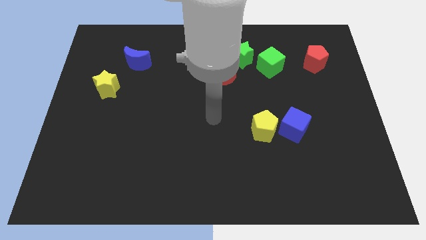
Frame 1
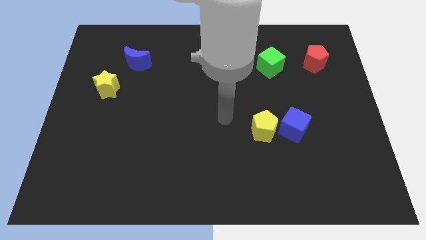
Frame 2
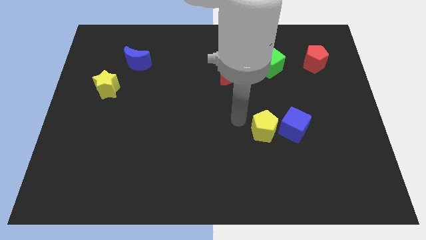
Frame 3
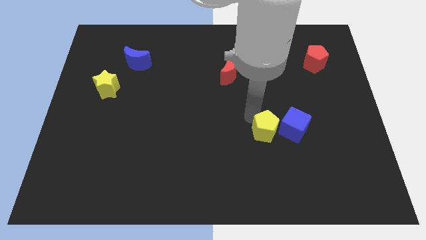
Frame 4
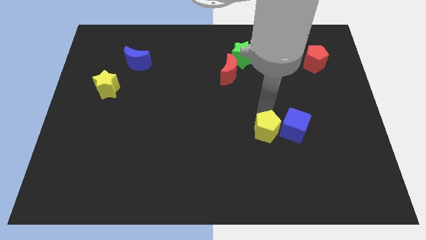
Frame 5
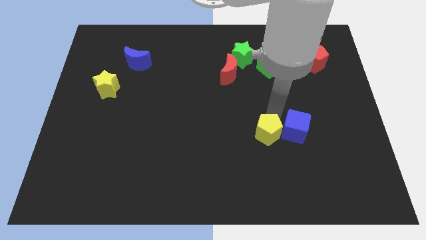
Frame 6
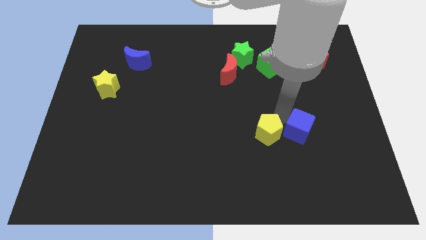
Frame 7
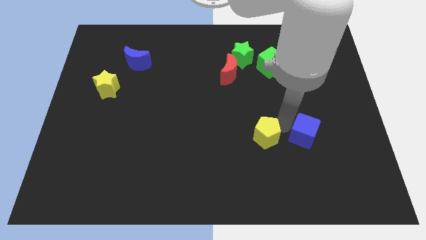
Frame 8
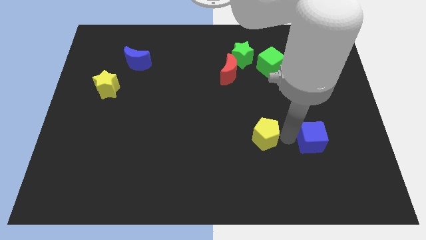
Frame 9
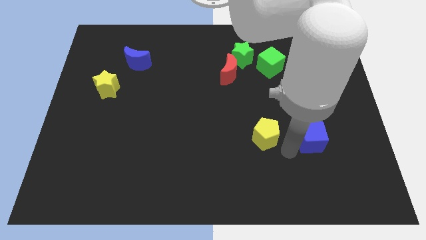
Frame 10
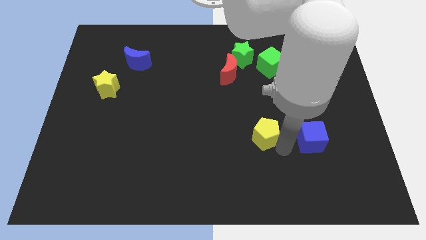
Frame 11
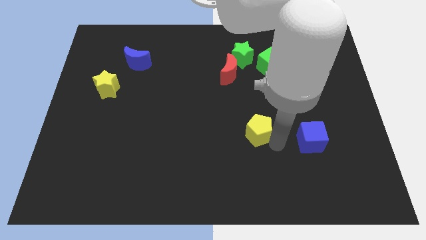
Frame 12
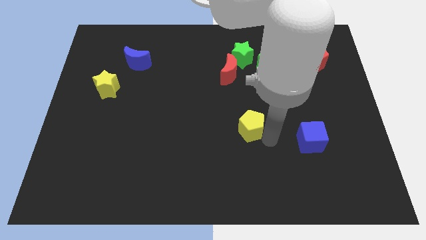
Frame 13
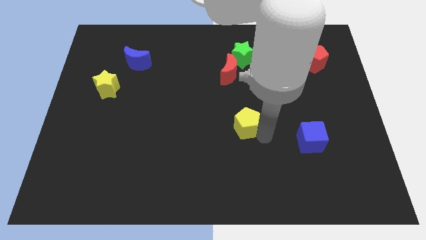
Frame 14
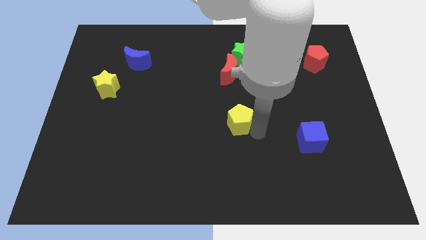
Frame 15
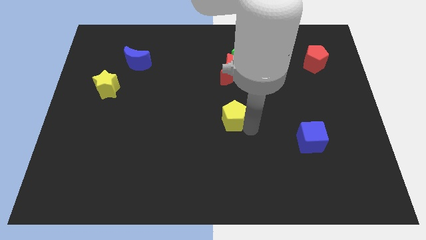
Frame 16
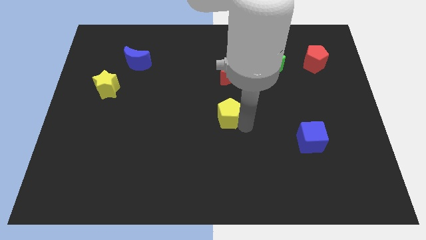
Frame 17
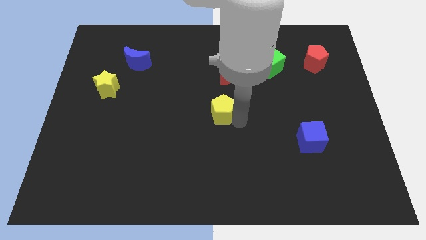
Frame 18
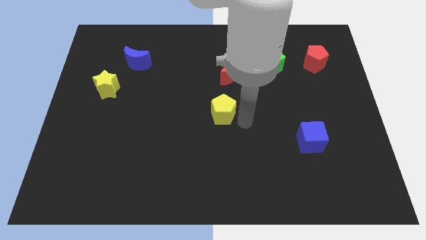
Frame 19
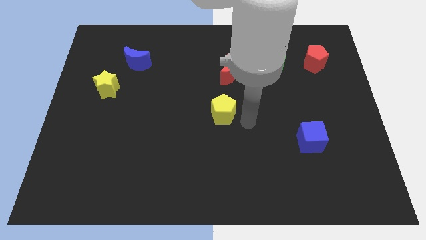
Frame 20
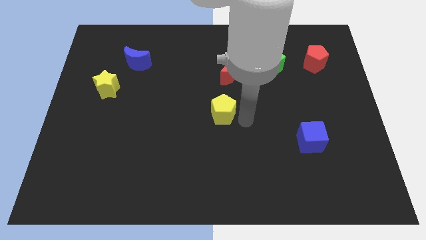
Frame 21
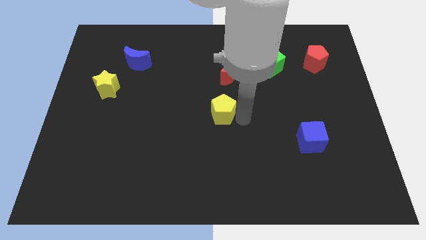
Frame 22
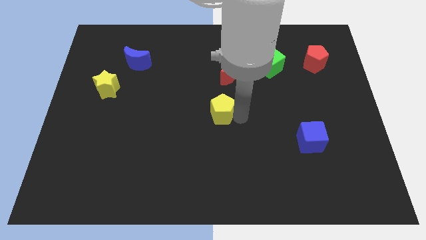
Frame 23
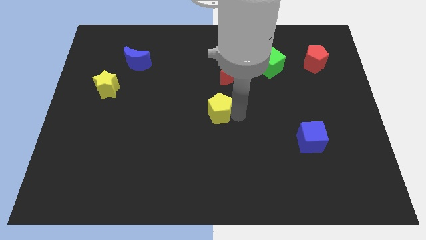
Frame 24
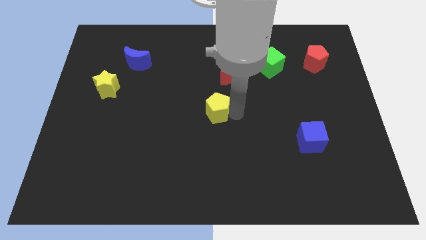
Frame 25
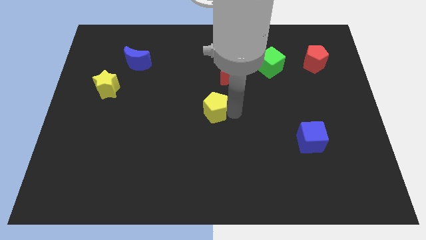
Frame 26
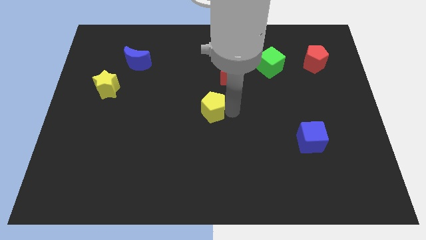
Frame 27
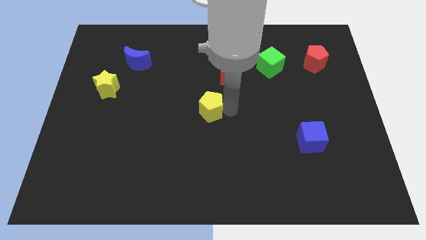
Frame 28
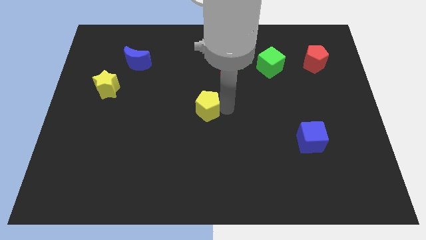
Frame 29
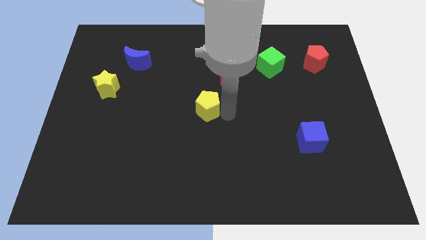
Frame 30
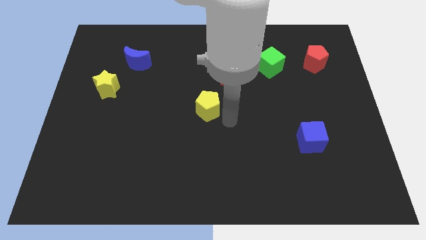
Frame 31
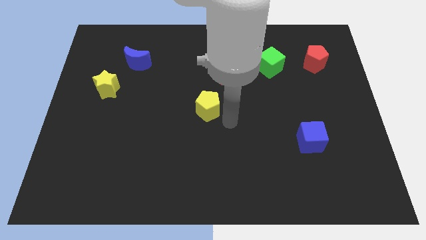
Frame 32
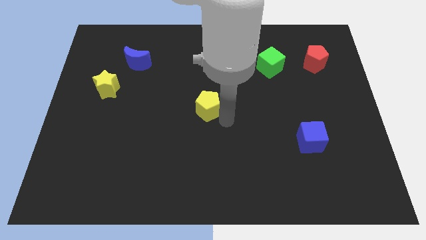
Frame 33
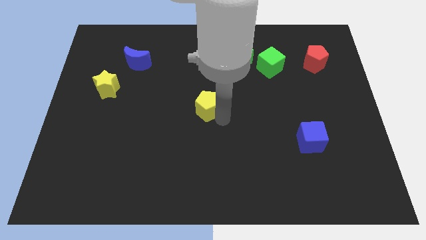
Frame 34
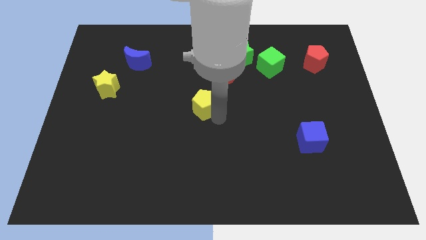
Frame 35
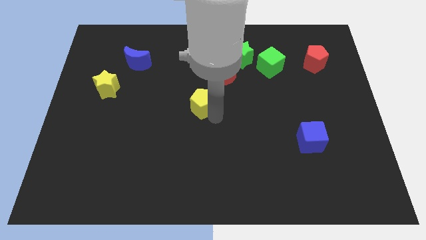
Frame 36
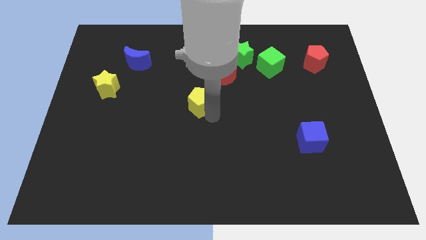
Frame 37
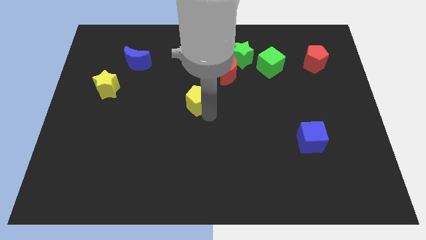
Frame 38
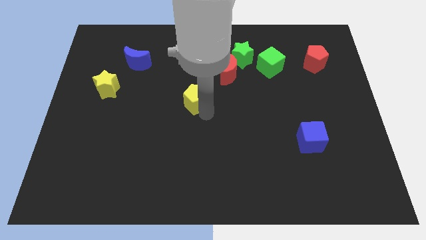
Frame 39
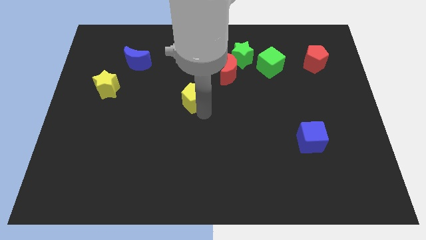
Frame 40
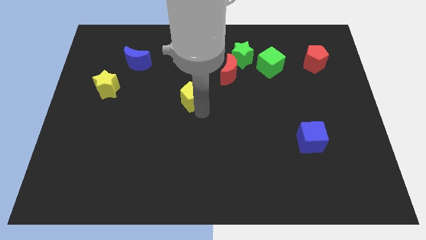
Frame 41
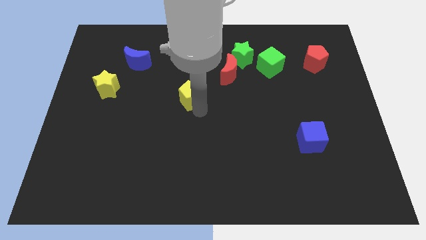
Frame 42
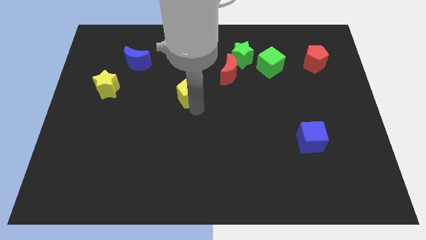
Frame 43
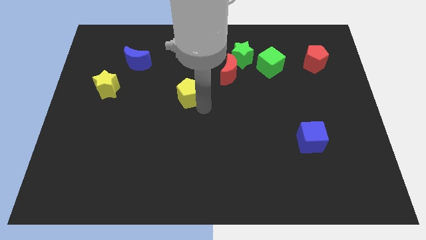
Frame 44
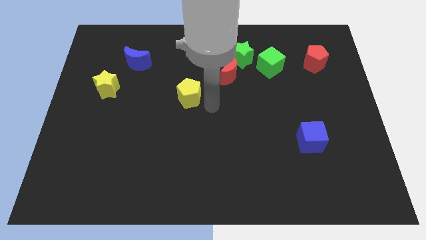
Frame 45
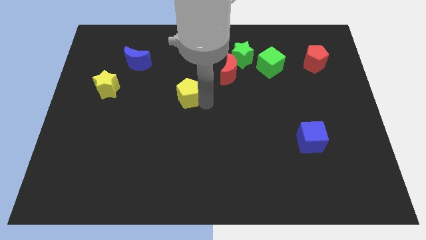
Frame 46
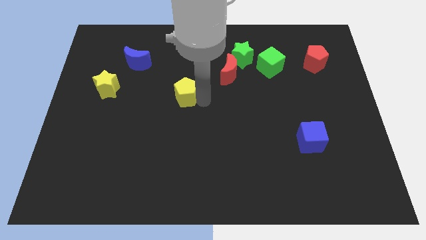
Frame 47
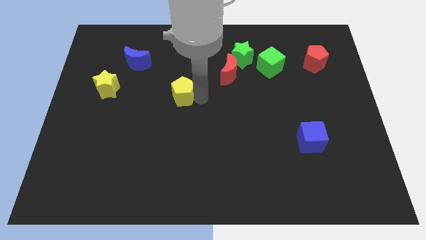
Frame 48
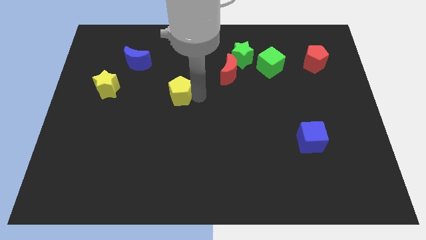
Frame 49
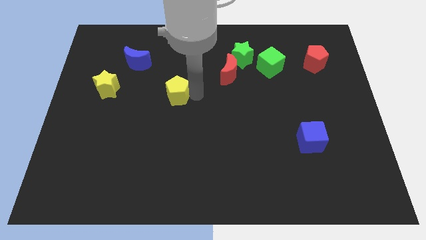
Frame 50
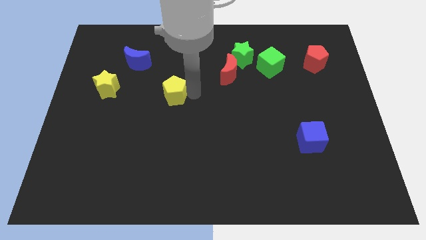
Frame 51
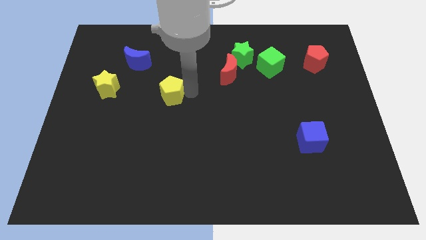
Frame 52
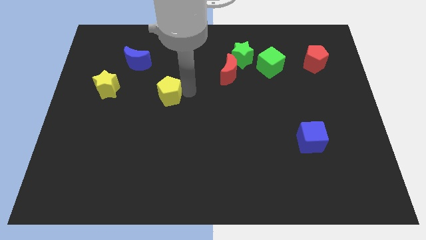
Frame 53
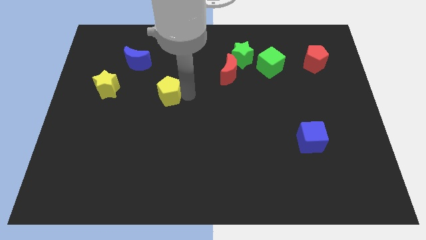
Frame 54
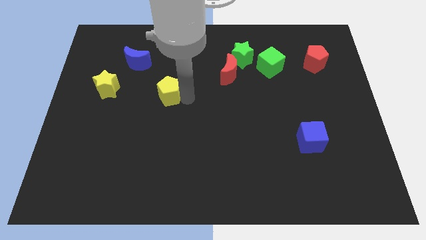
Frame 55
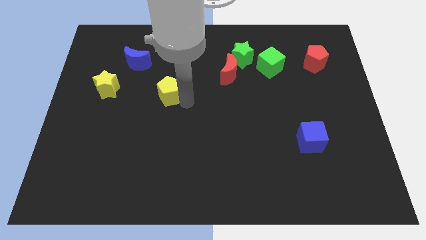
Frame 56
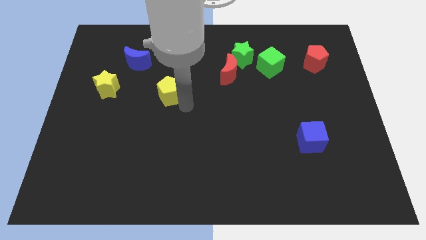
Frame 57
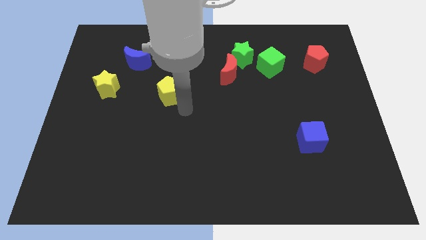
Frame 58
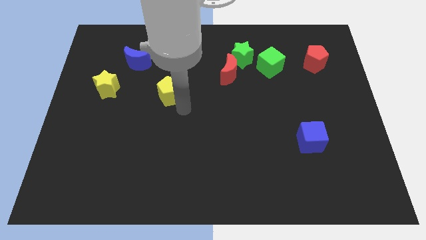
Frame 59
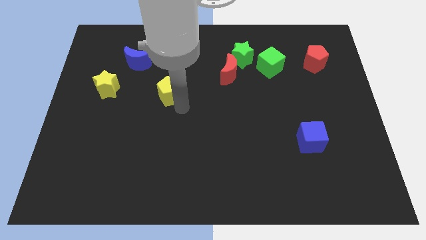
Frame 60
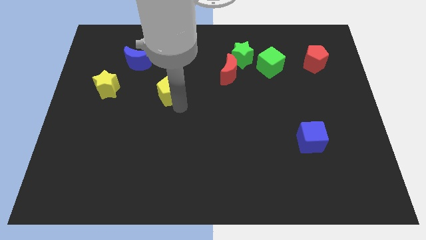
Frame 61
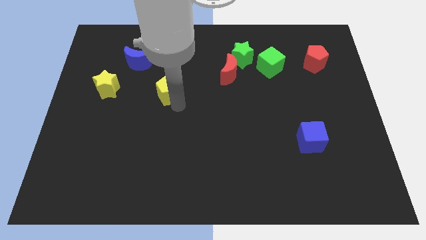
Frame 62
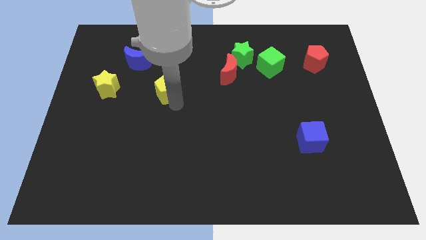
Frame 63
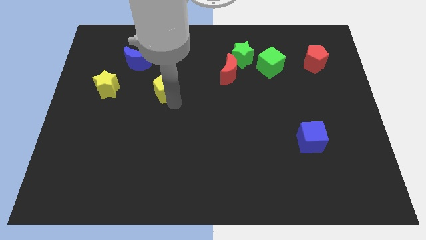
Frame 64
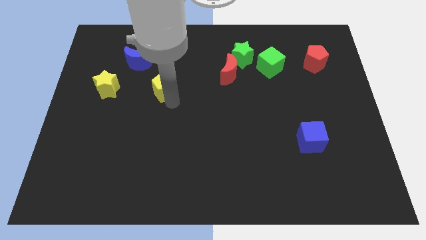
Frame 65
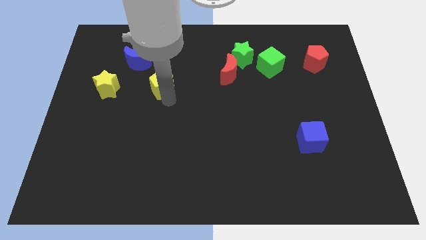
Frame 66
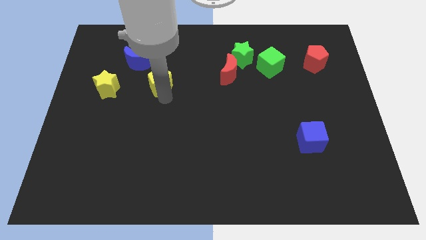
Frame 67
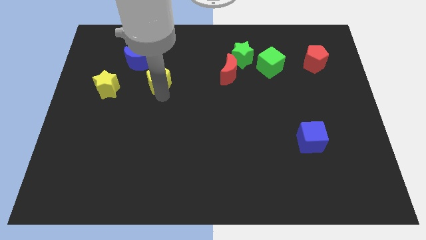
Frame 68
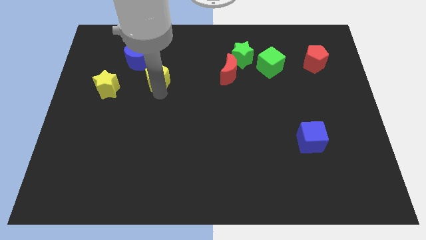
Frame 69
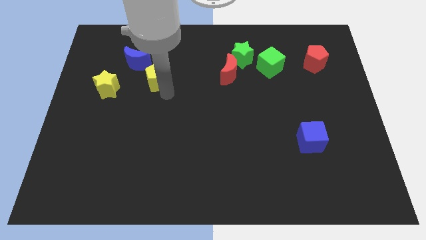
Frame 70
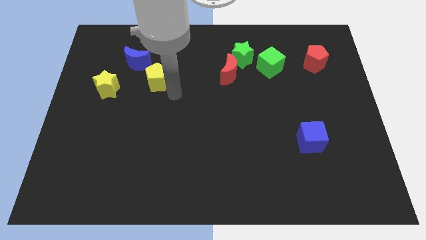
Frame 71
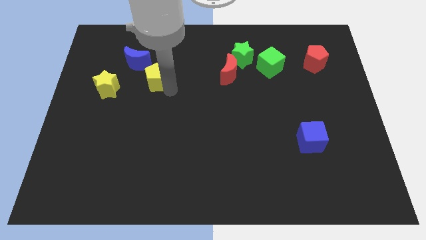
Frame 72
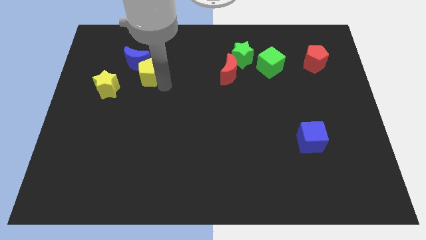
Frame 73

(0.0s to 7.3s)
push the yellow pentagon next to the blue moon

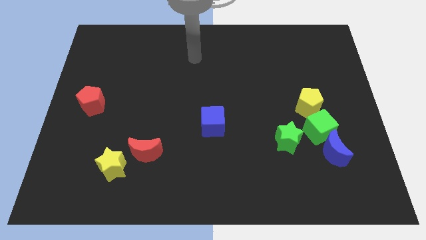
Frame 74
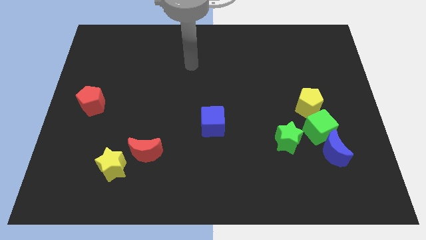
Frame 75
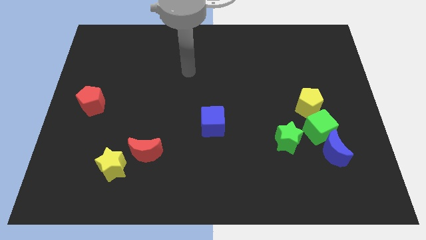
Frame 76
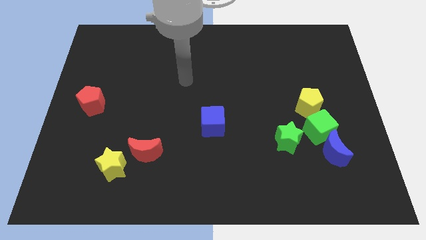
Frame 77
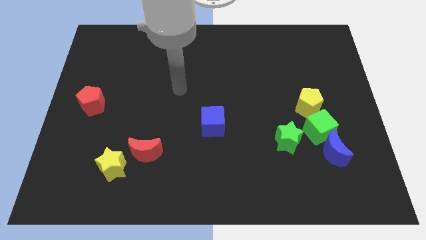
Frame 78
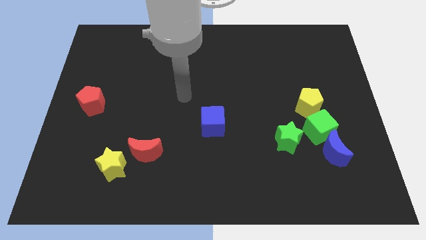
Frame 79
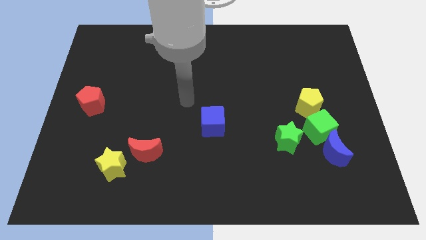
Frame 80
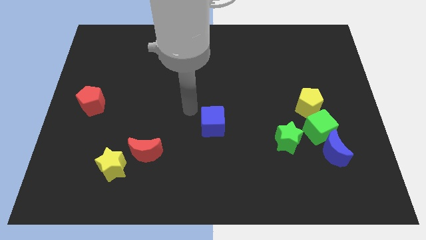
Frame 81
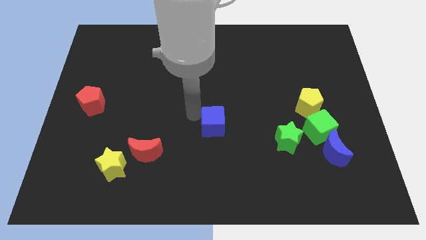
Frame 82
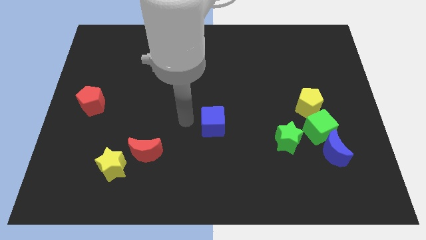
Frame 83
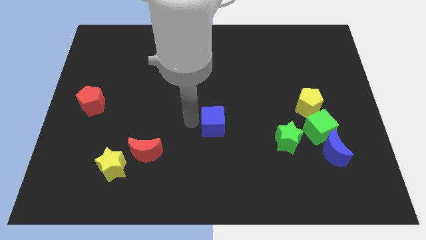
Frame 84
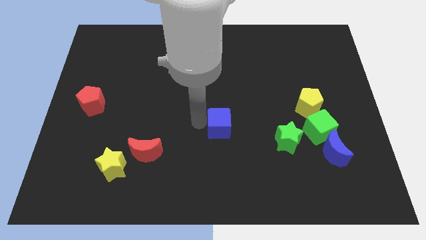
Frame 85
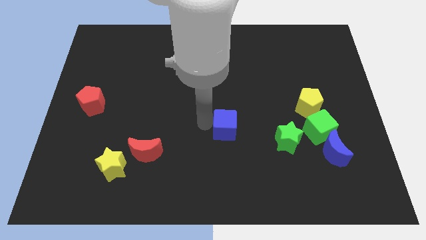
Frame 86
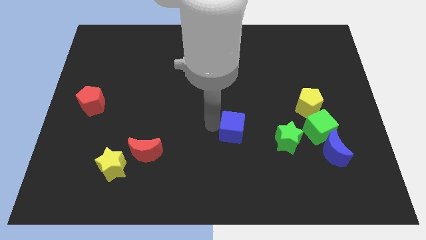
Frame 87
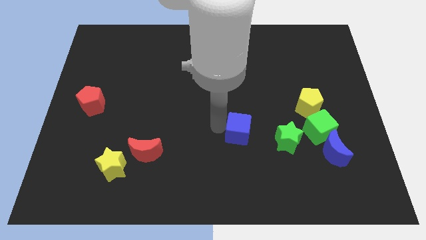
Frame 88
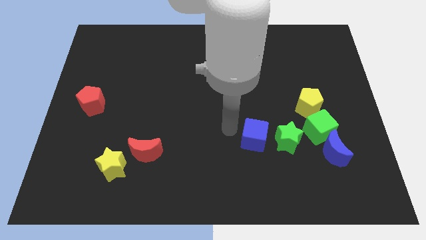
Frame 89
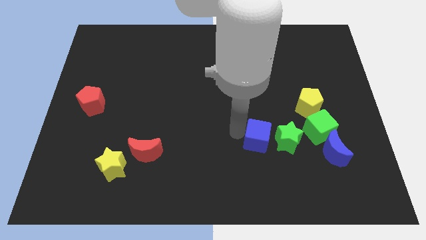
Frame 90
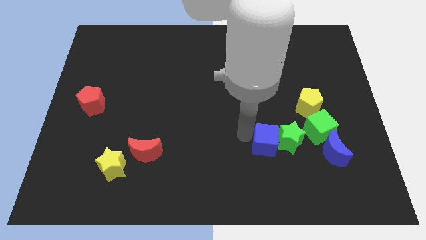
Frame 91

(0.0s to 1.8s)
move the blue cube to the green star
